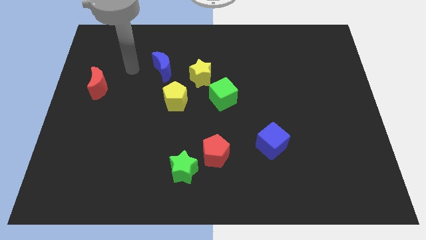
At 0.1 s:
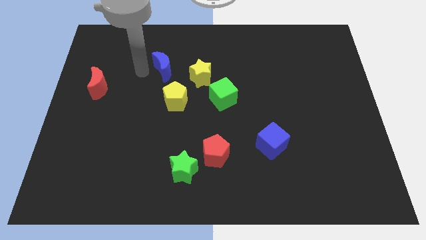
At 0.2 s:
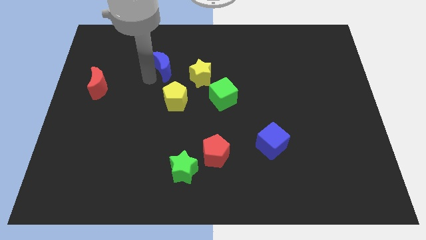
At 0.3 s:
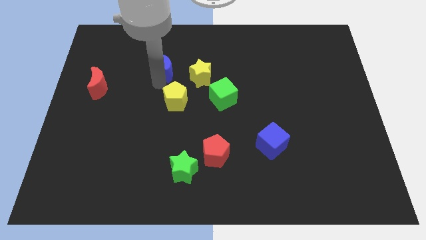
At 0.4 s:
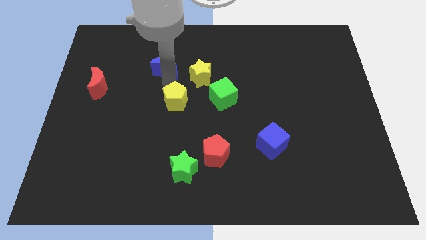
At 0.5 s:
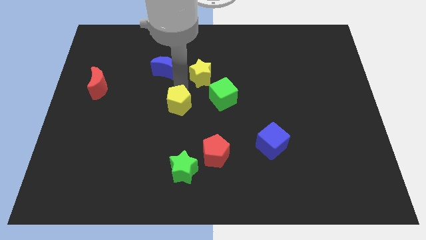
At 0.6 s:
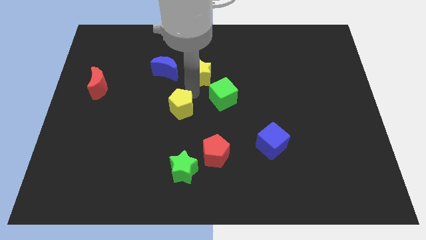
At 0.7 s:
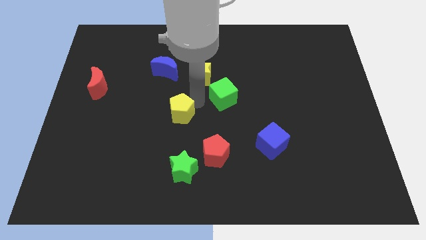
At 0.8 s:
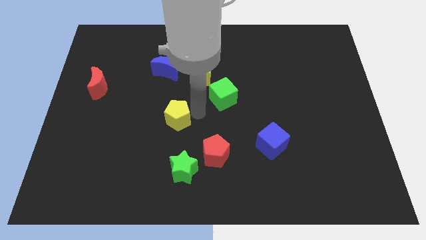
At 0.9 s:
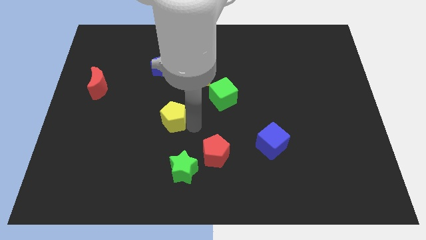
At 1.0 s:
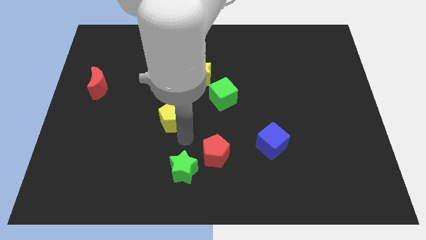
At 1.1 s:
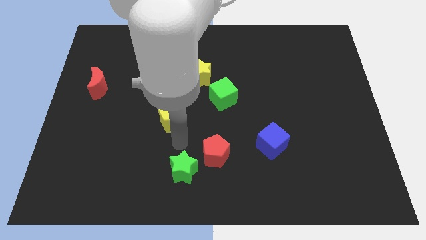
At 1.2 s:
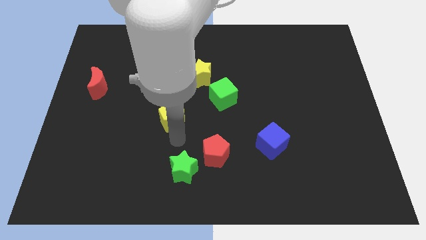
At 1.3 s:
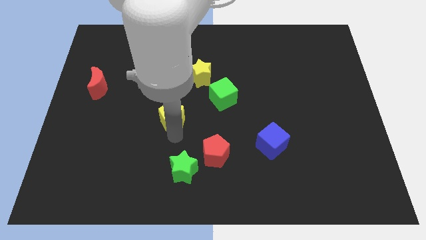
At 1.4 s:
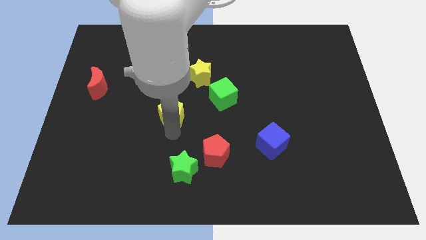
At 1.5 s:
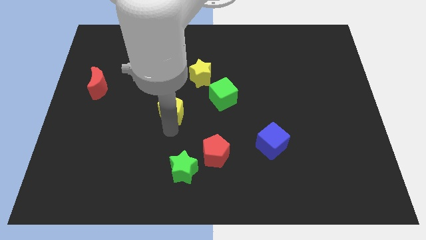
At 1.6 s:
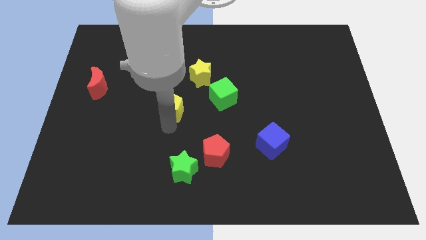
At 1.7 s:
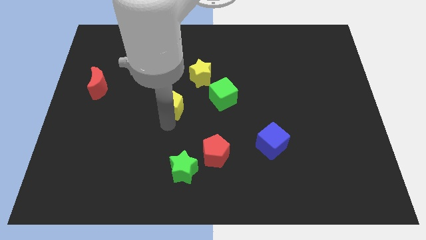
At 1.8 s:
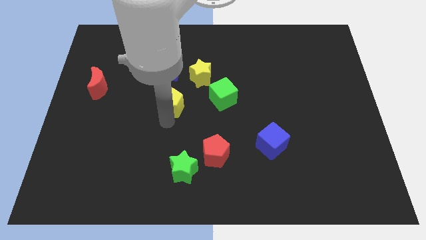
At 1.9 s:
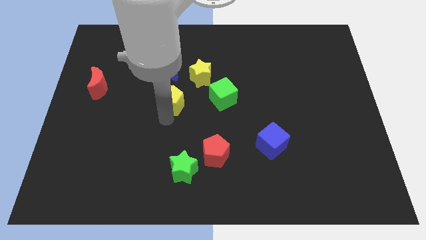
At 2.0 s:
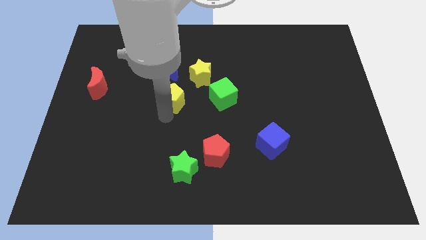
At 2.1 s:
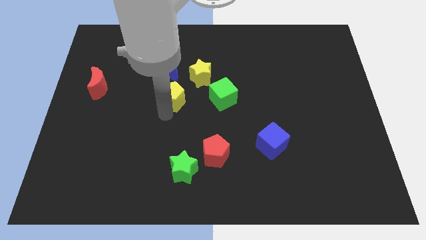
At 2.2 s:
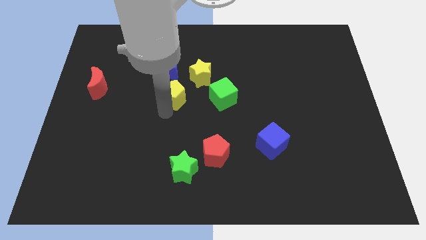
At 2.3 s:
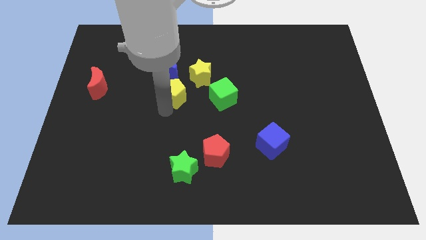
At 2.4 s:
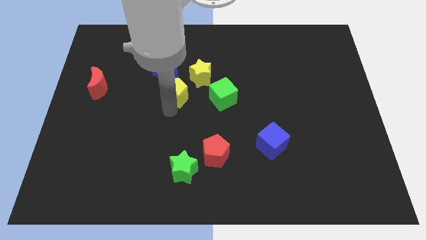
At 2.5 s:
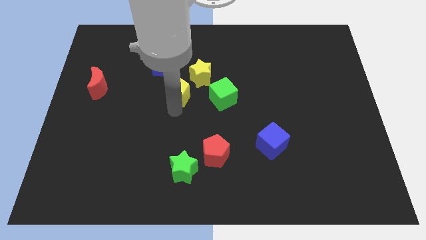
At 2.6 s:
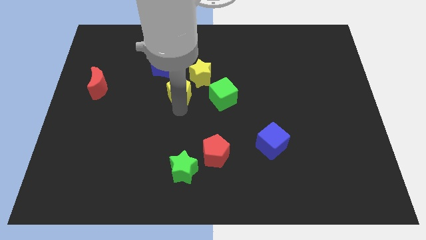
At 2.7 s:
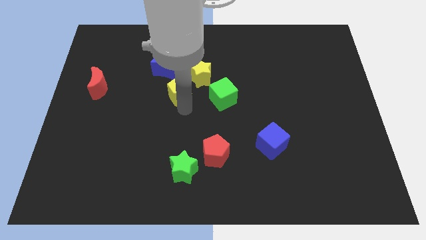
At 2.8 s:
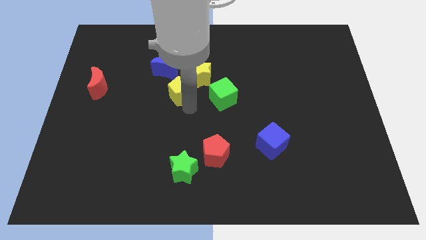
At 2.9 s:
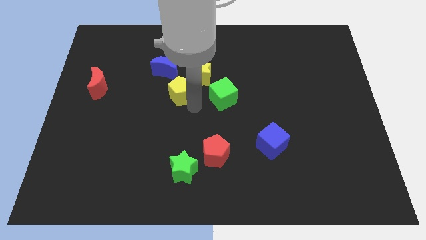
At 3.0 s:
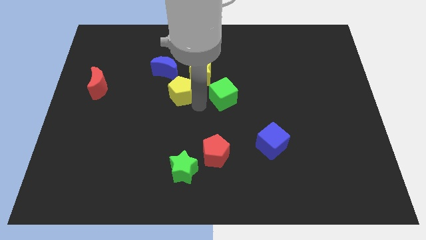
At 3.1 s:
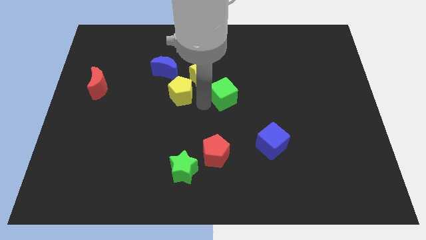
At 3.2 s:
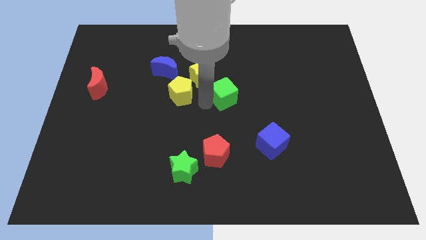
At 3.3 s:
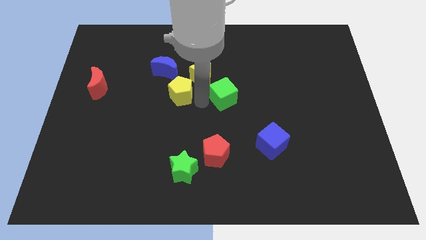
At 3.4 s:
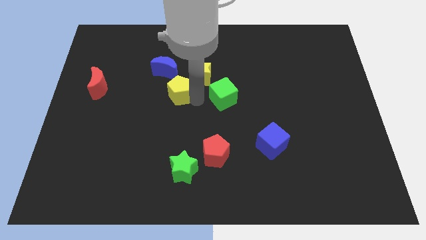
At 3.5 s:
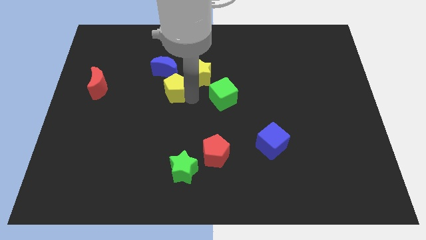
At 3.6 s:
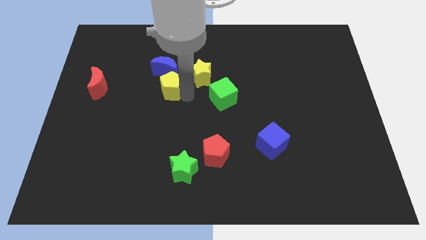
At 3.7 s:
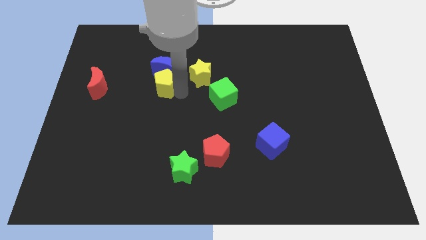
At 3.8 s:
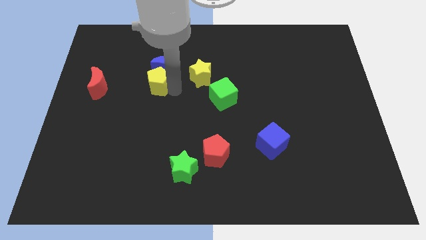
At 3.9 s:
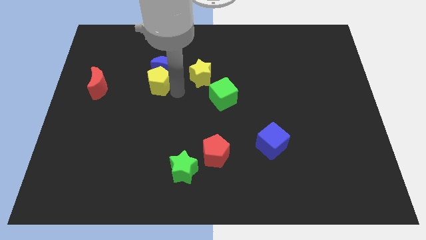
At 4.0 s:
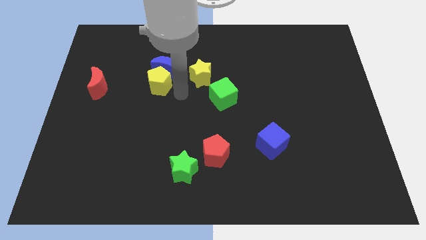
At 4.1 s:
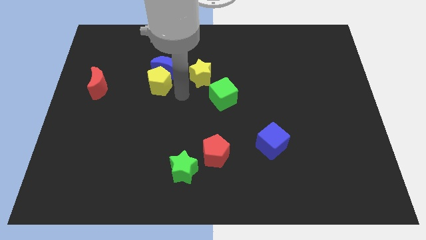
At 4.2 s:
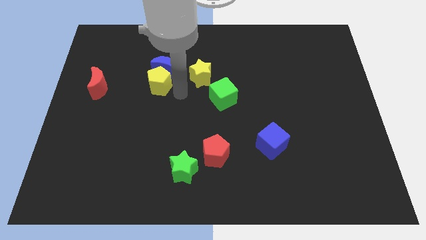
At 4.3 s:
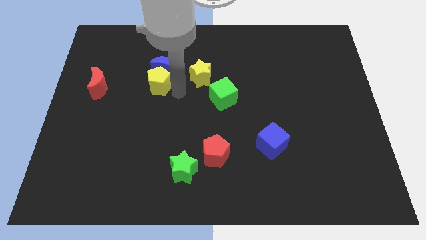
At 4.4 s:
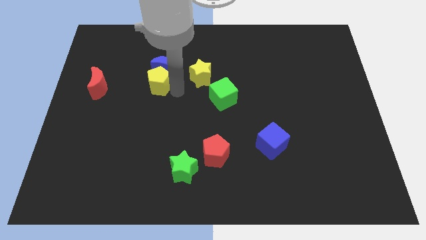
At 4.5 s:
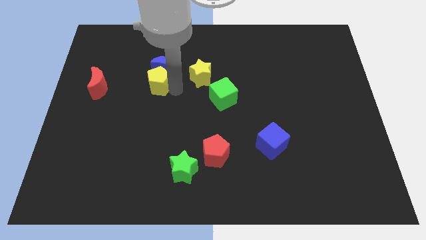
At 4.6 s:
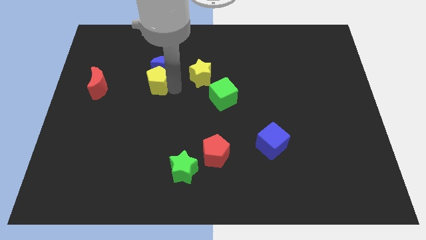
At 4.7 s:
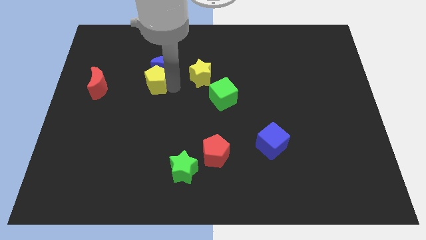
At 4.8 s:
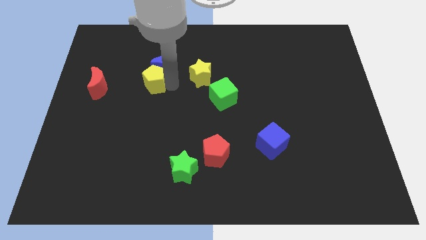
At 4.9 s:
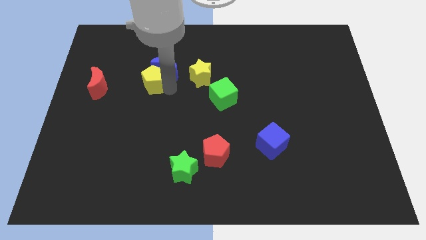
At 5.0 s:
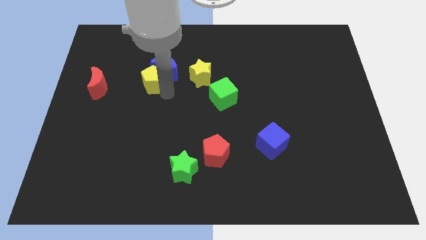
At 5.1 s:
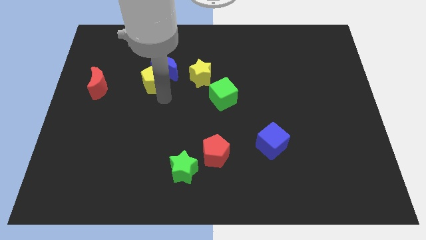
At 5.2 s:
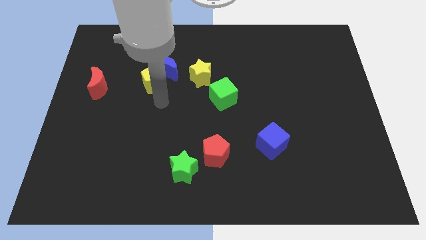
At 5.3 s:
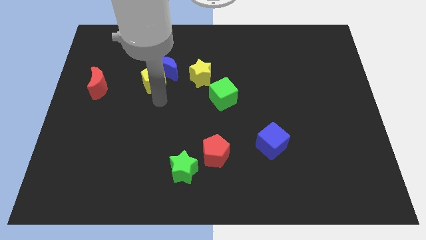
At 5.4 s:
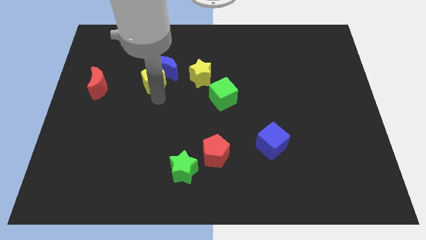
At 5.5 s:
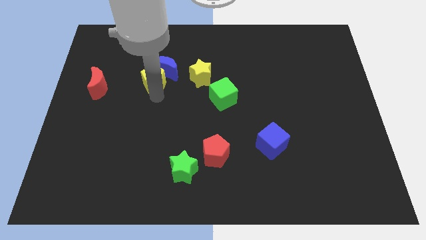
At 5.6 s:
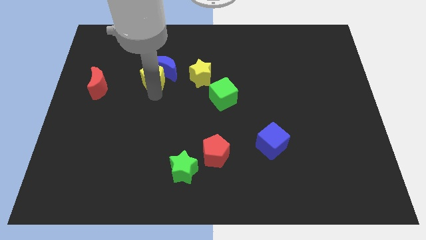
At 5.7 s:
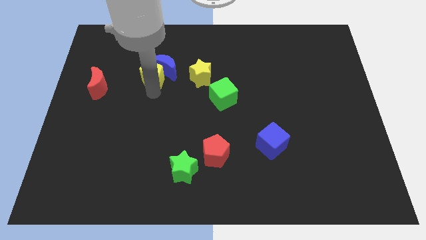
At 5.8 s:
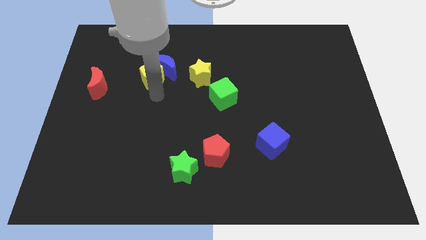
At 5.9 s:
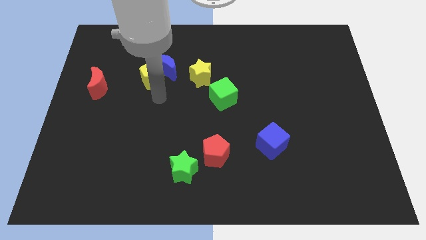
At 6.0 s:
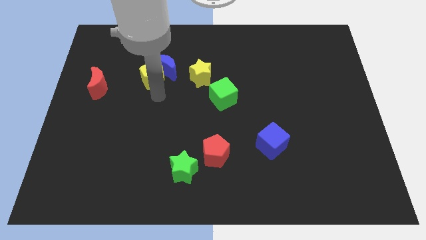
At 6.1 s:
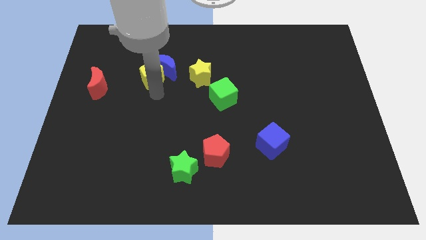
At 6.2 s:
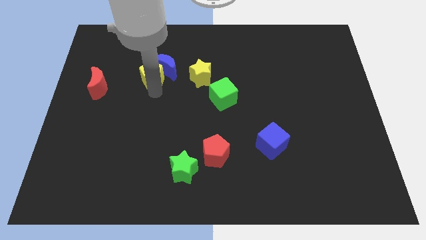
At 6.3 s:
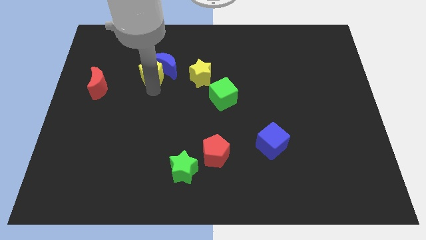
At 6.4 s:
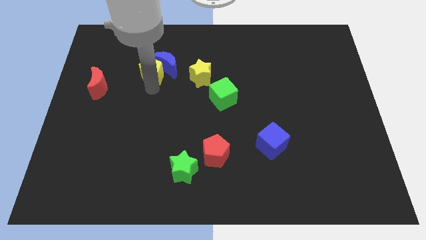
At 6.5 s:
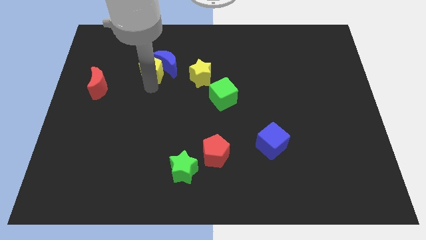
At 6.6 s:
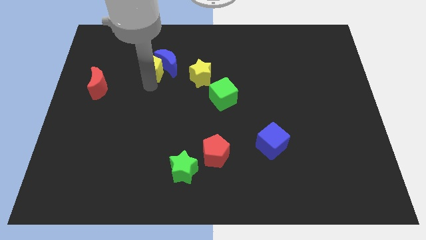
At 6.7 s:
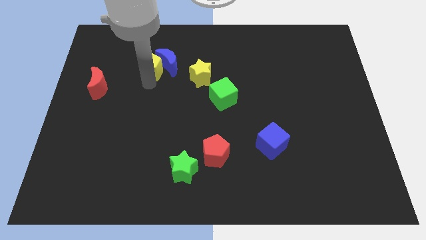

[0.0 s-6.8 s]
put the yellow pentagon diagonally up and to the left of the blue moon
